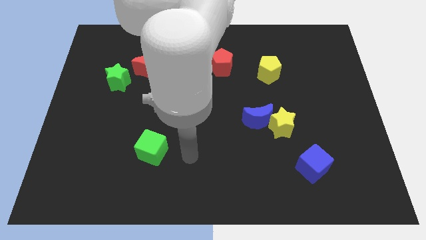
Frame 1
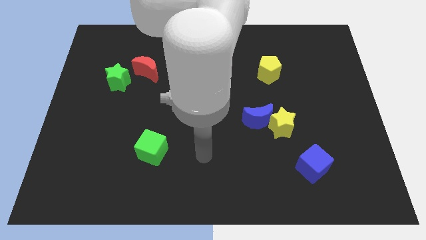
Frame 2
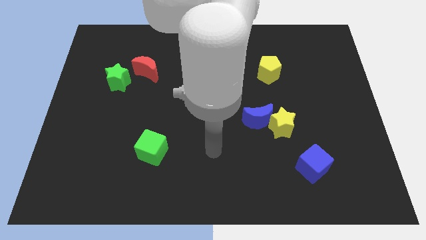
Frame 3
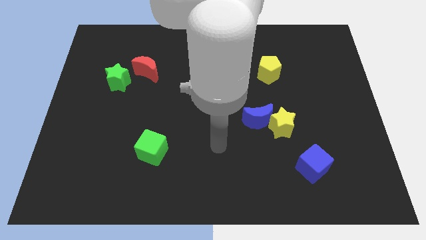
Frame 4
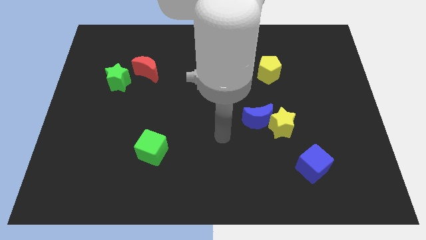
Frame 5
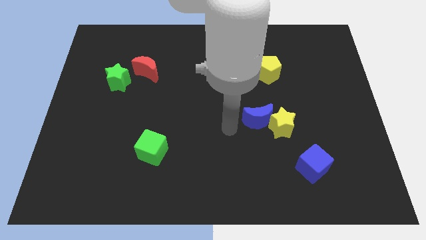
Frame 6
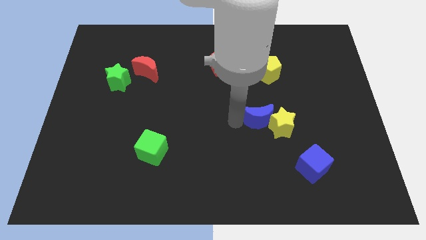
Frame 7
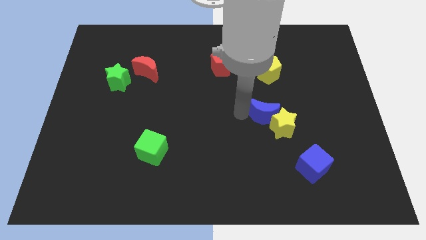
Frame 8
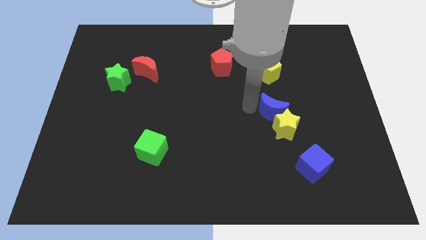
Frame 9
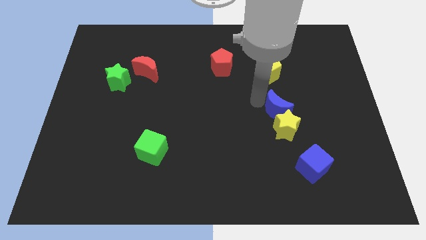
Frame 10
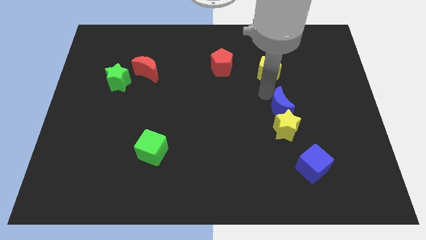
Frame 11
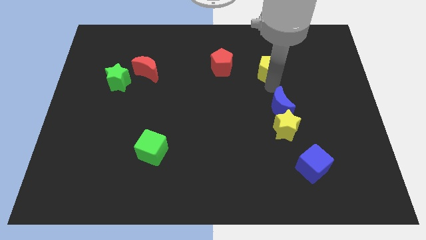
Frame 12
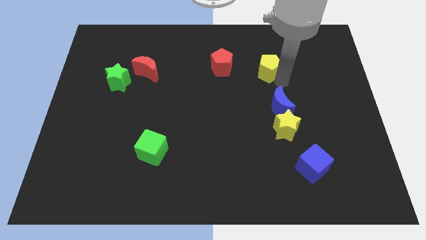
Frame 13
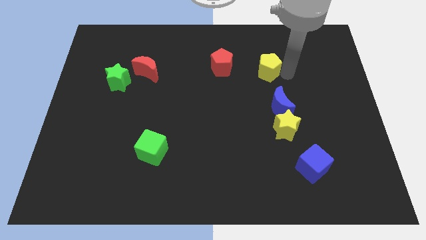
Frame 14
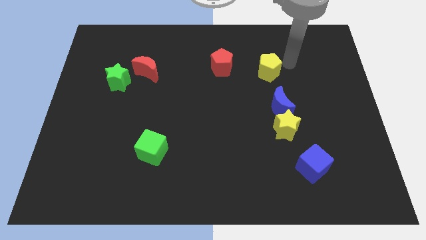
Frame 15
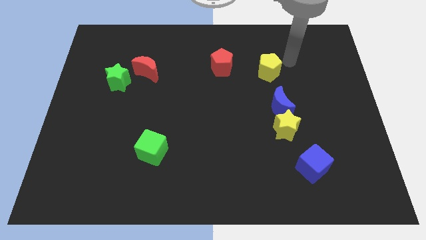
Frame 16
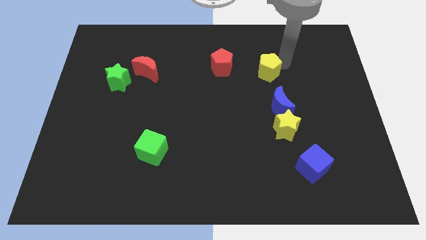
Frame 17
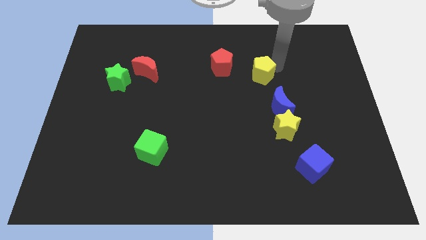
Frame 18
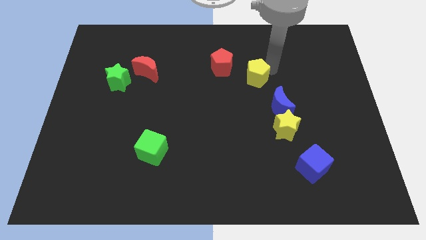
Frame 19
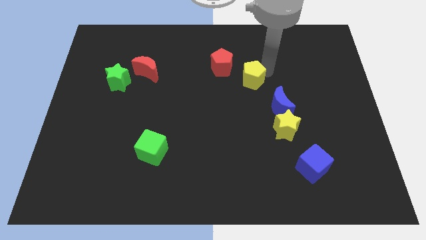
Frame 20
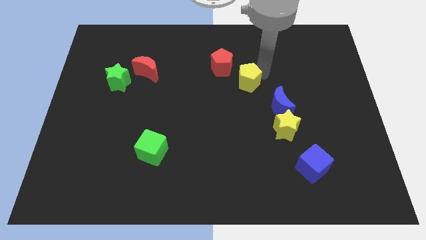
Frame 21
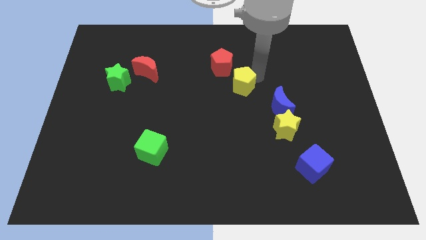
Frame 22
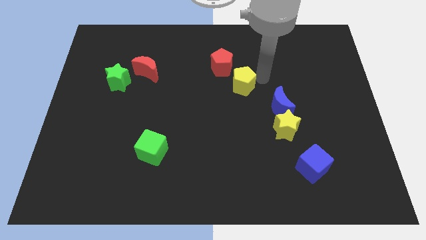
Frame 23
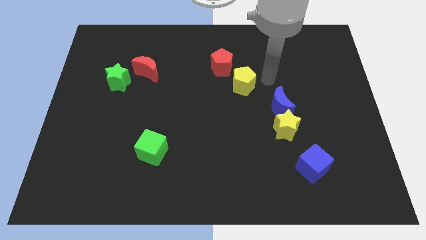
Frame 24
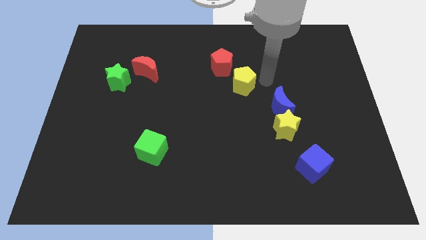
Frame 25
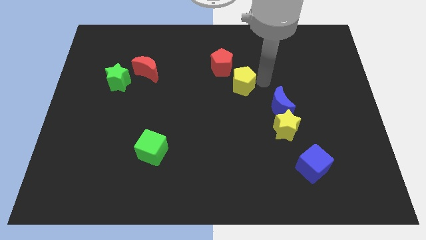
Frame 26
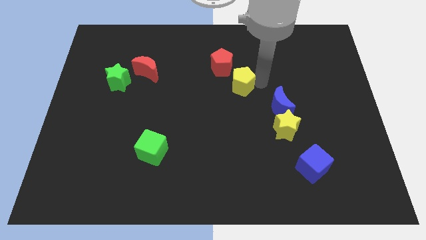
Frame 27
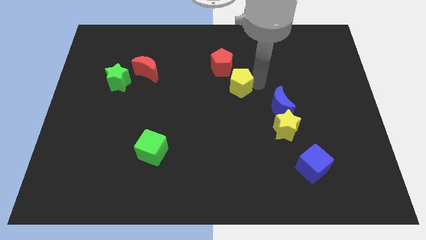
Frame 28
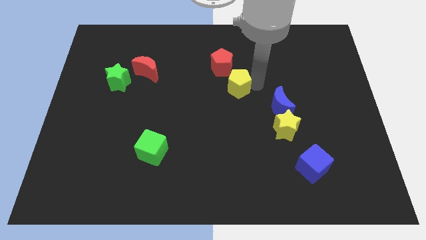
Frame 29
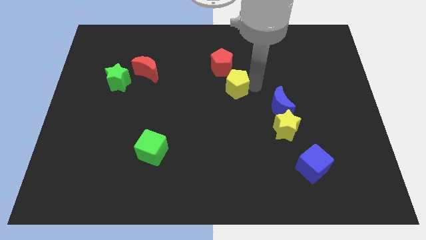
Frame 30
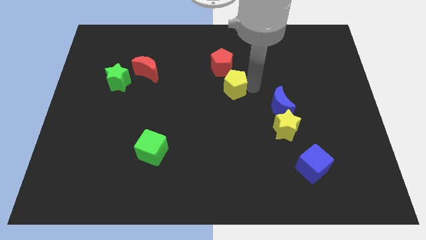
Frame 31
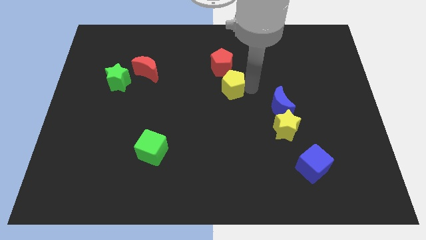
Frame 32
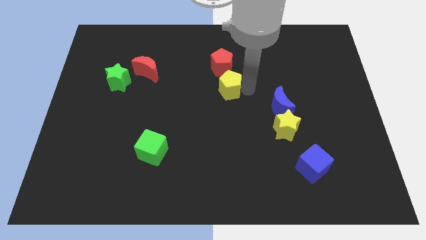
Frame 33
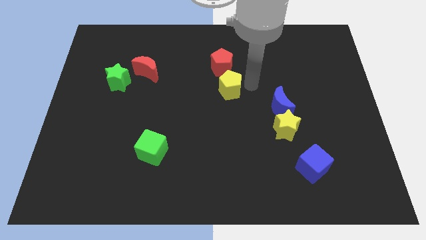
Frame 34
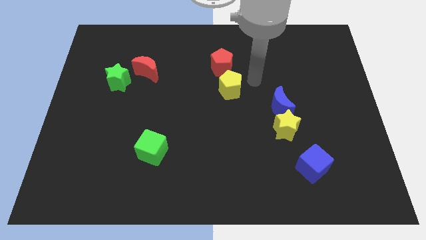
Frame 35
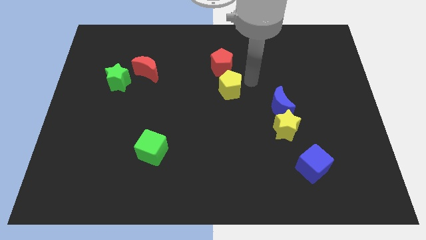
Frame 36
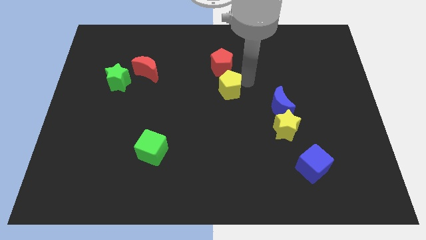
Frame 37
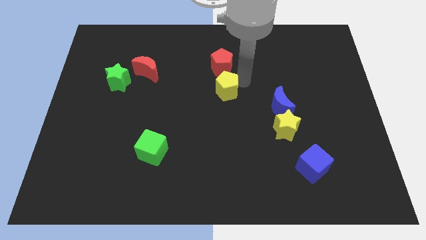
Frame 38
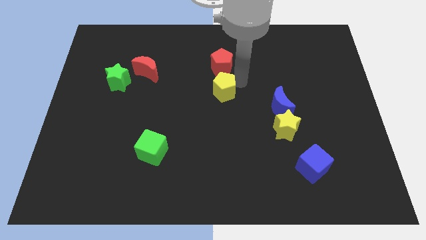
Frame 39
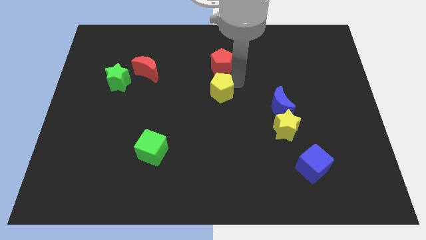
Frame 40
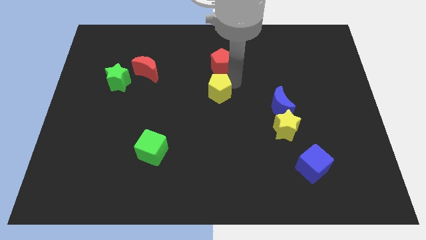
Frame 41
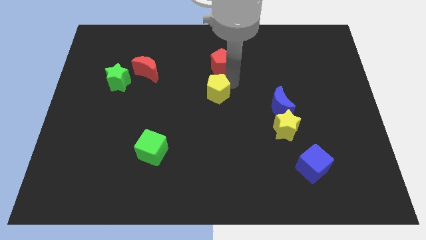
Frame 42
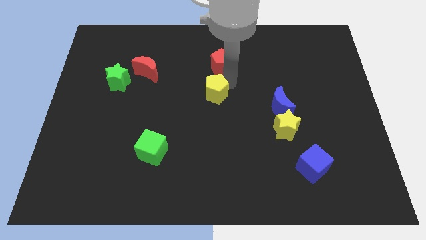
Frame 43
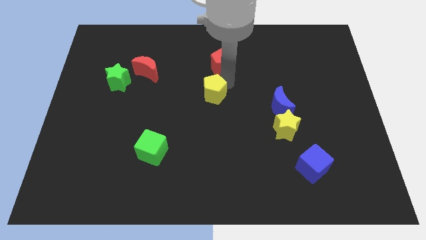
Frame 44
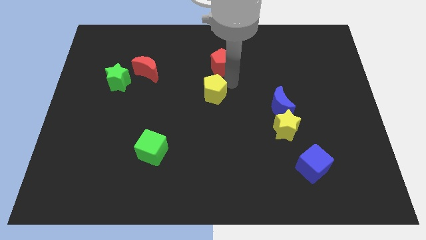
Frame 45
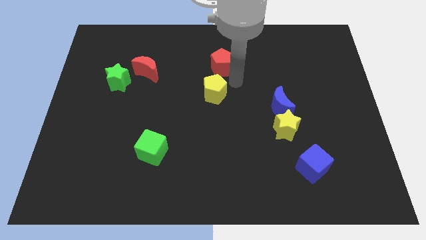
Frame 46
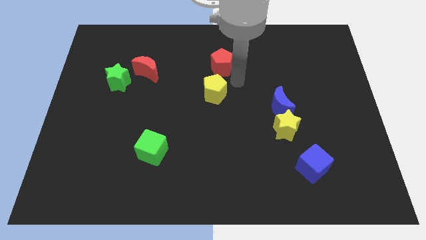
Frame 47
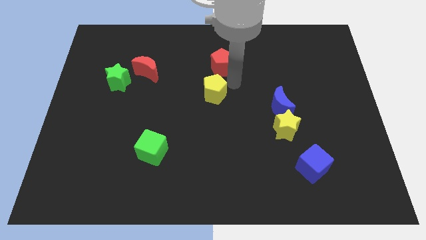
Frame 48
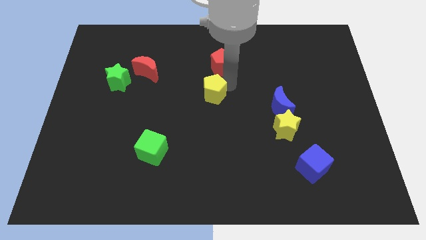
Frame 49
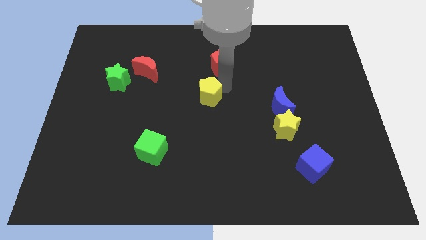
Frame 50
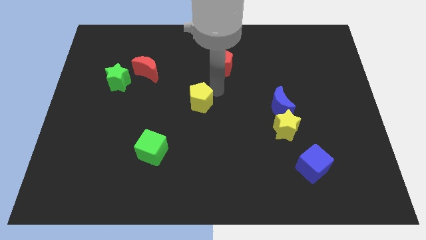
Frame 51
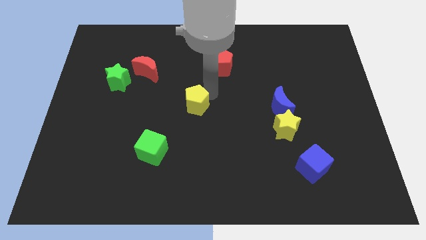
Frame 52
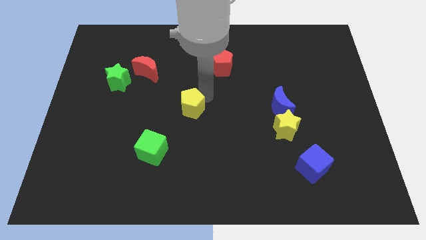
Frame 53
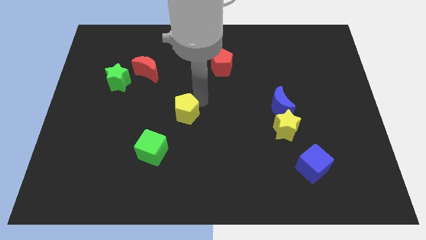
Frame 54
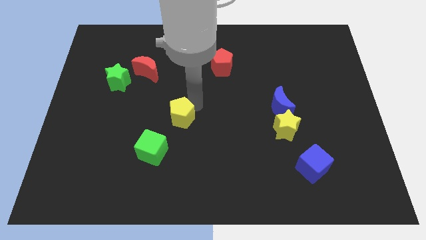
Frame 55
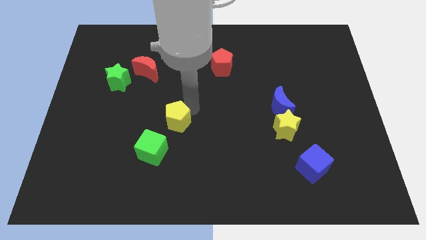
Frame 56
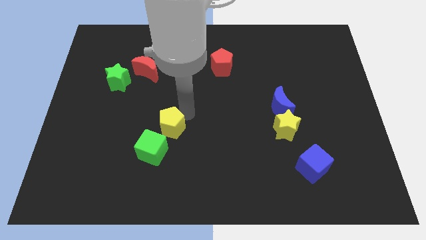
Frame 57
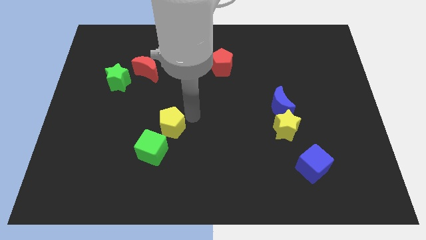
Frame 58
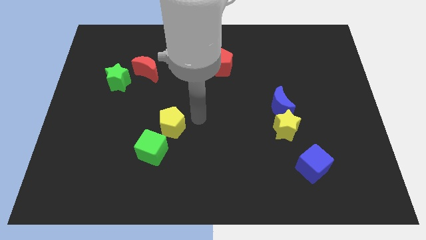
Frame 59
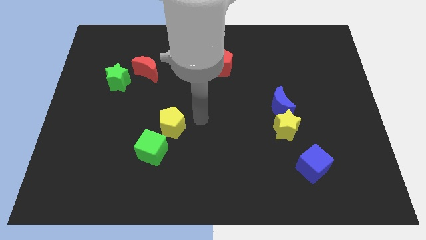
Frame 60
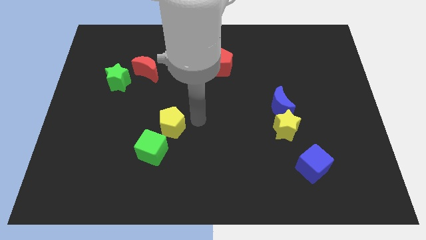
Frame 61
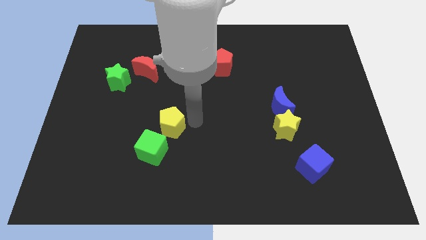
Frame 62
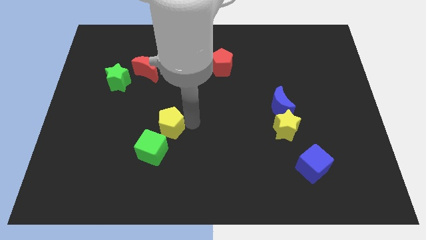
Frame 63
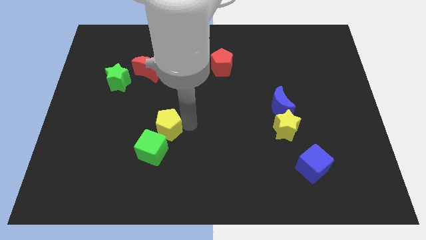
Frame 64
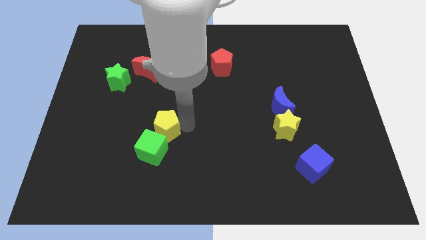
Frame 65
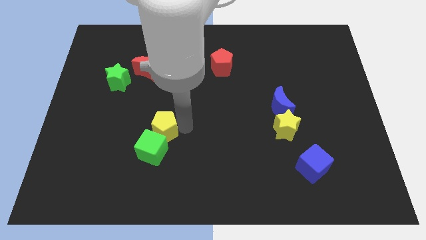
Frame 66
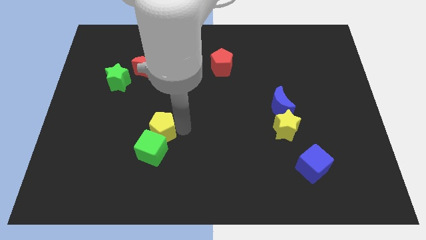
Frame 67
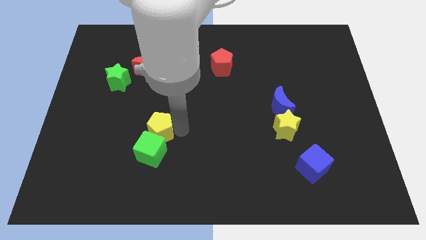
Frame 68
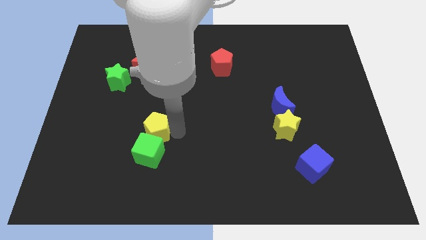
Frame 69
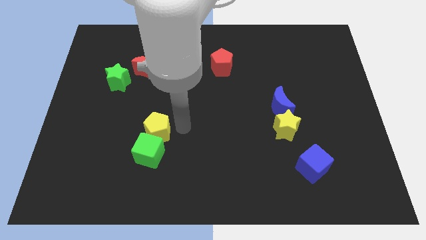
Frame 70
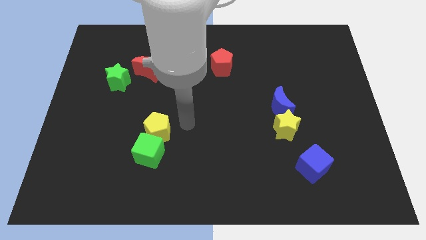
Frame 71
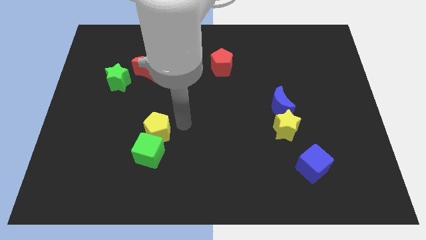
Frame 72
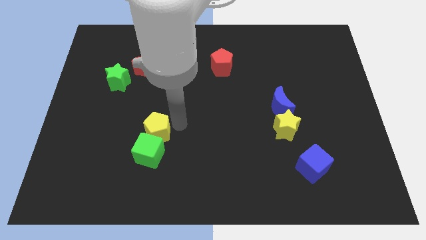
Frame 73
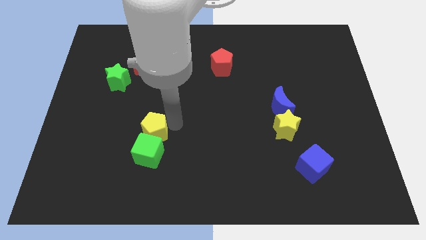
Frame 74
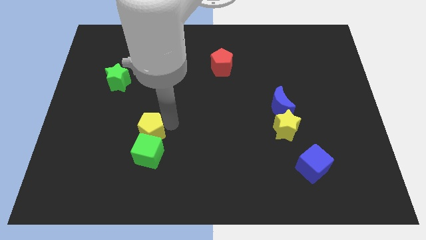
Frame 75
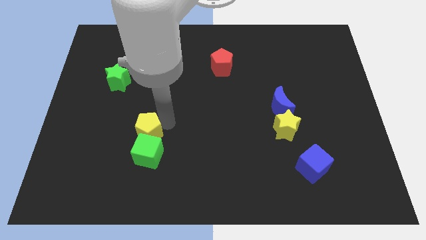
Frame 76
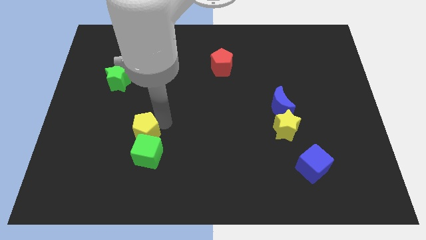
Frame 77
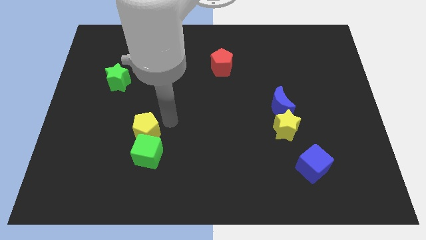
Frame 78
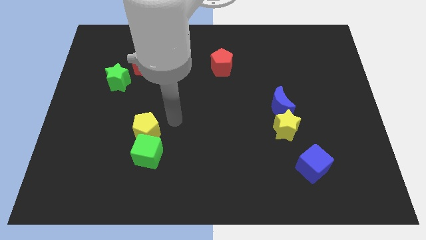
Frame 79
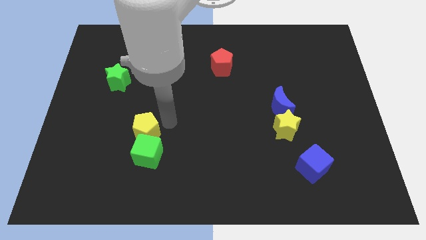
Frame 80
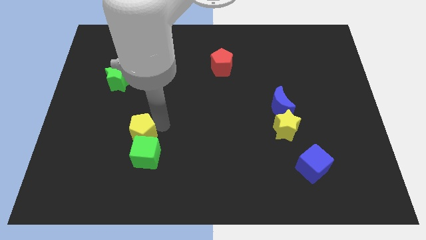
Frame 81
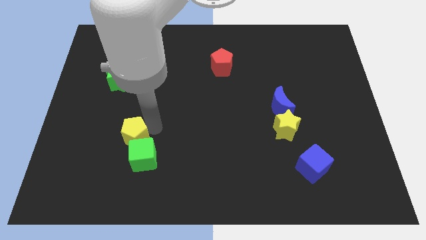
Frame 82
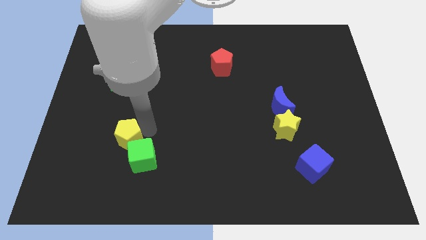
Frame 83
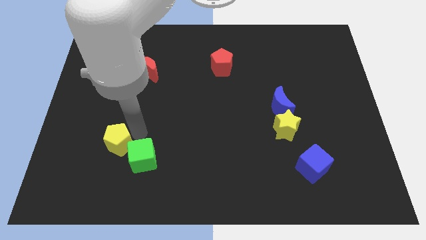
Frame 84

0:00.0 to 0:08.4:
push the yellow pentagon to the left of the green cube
